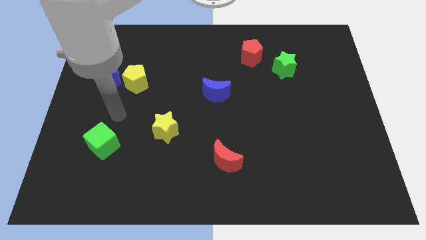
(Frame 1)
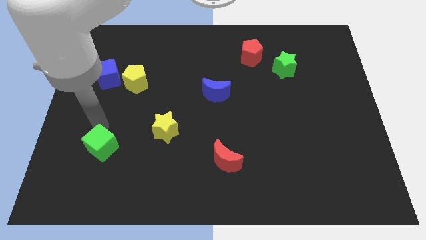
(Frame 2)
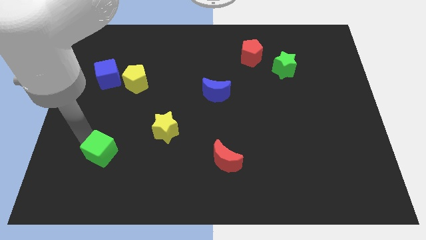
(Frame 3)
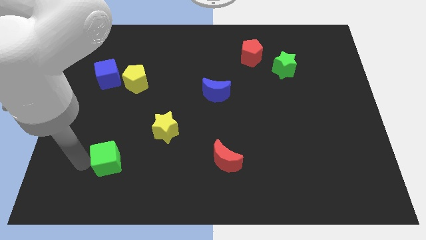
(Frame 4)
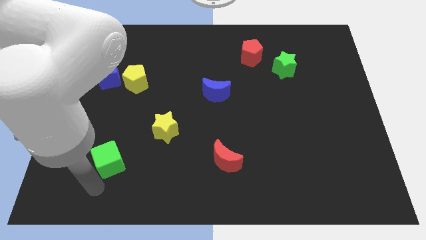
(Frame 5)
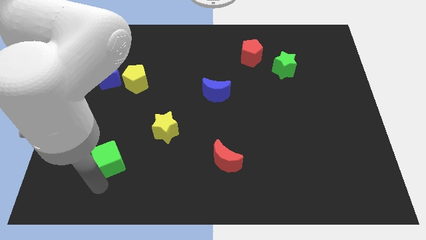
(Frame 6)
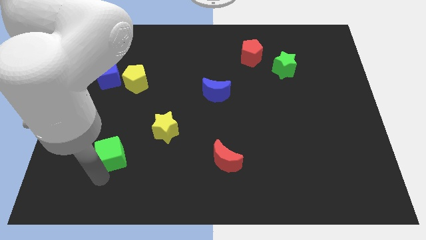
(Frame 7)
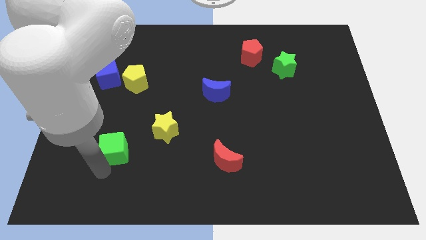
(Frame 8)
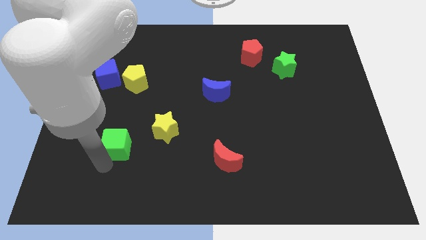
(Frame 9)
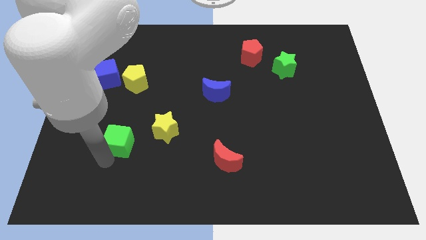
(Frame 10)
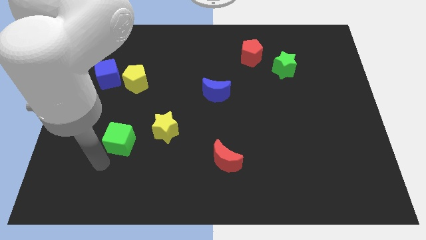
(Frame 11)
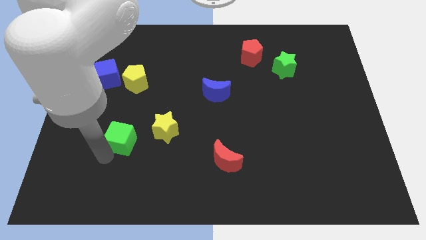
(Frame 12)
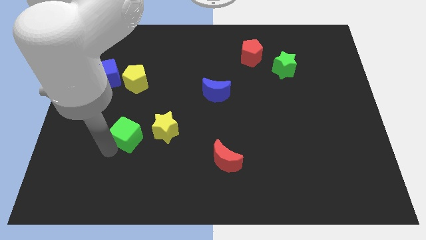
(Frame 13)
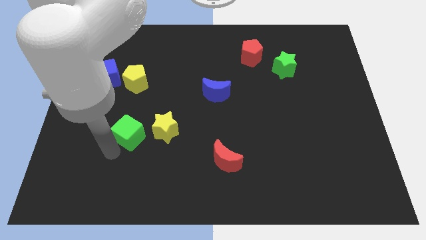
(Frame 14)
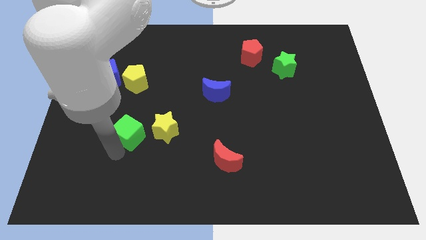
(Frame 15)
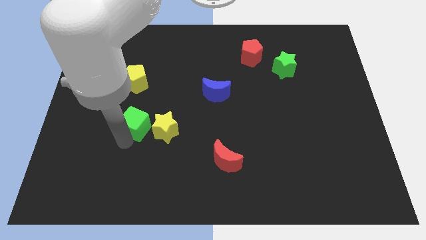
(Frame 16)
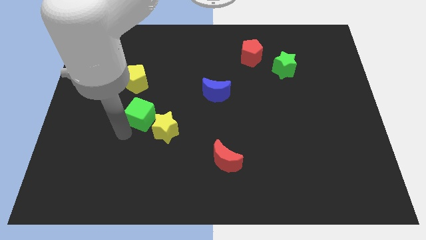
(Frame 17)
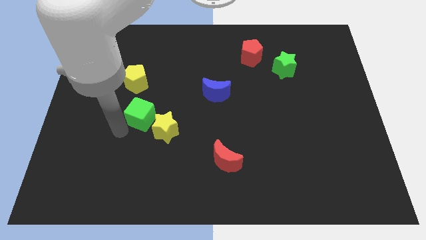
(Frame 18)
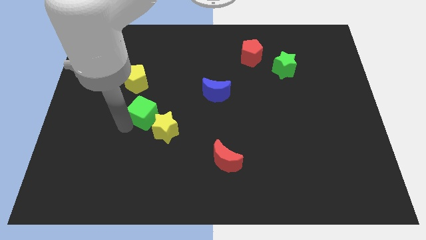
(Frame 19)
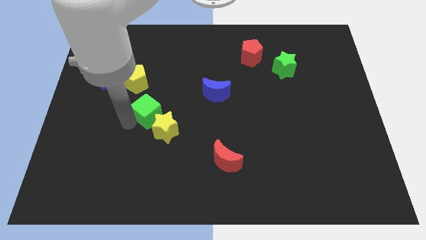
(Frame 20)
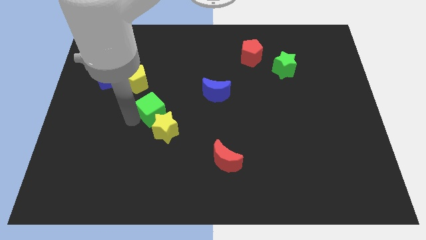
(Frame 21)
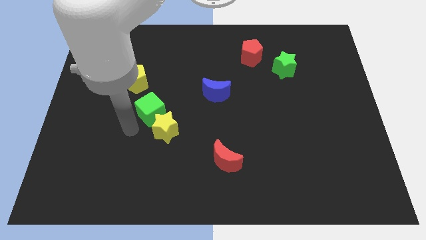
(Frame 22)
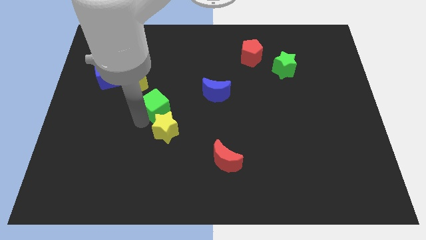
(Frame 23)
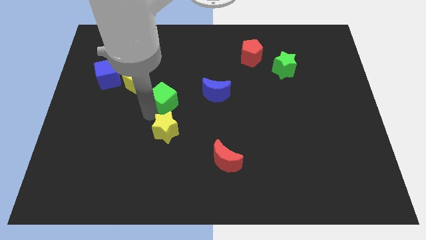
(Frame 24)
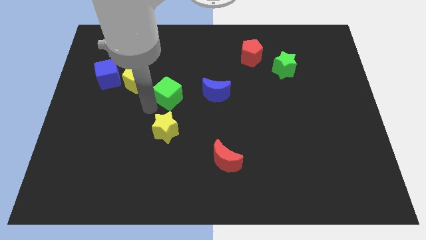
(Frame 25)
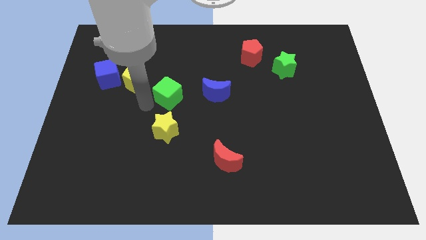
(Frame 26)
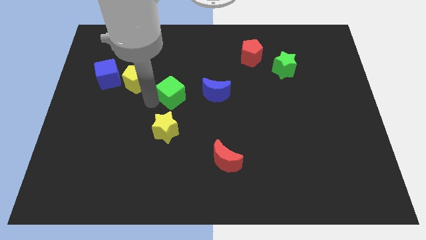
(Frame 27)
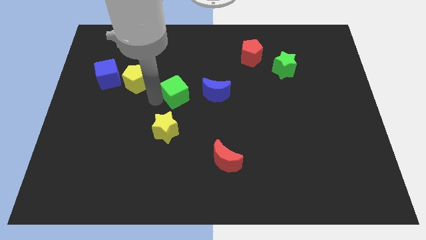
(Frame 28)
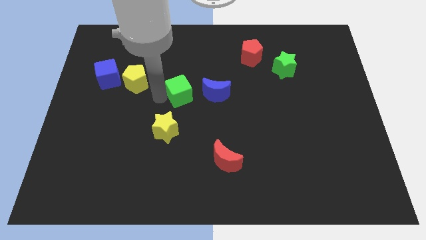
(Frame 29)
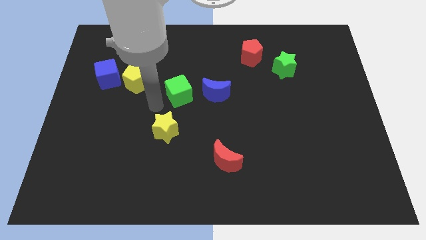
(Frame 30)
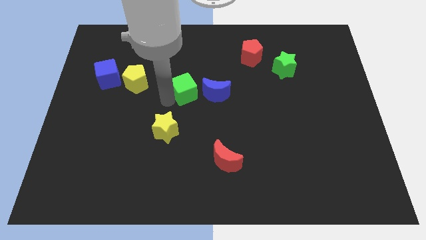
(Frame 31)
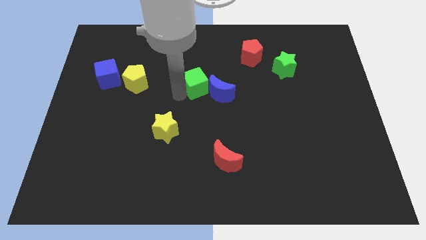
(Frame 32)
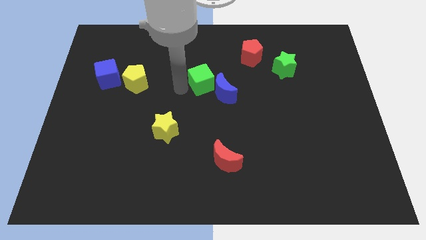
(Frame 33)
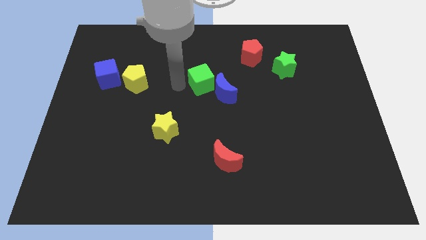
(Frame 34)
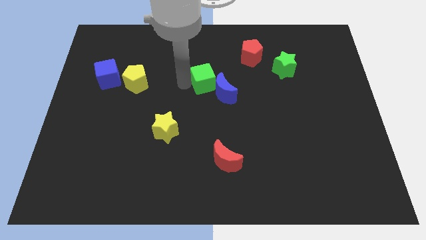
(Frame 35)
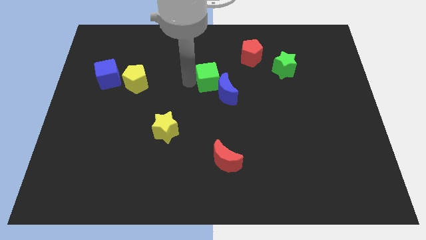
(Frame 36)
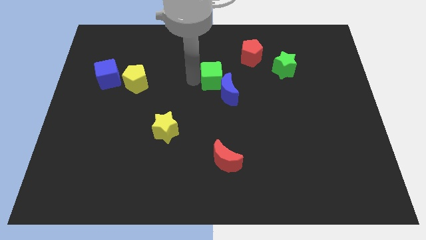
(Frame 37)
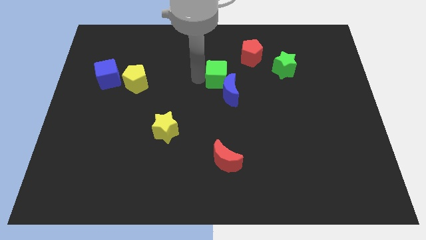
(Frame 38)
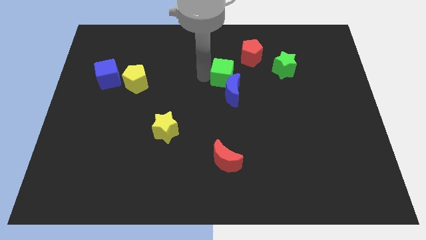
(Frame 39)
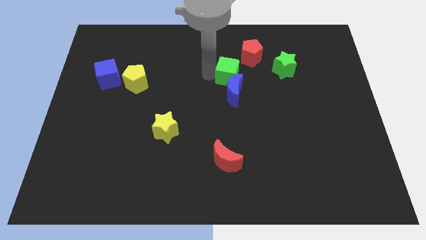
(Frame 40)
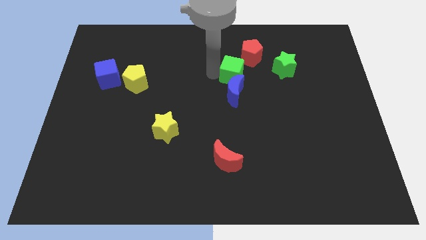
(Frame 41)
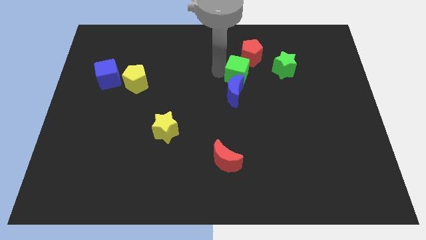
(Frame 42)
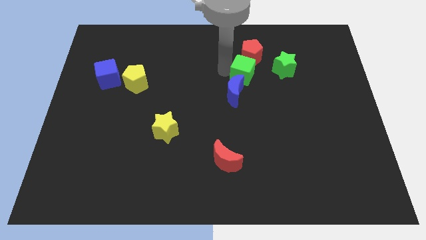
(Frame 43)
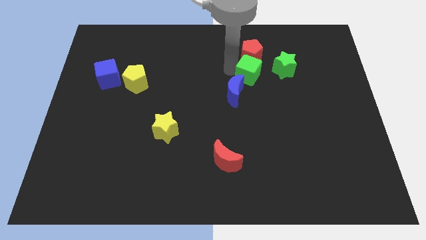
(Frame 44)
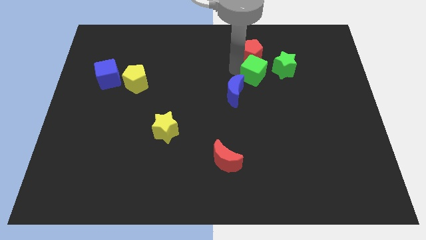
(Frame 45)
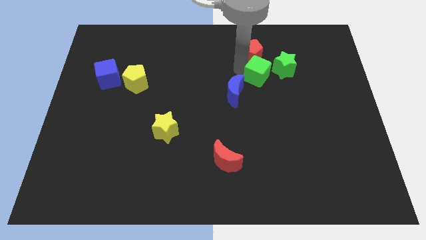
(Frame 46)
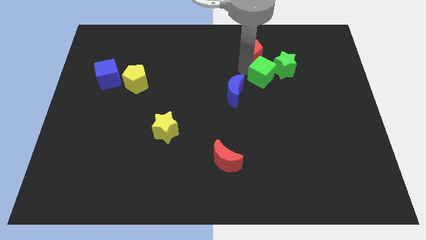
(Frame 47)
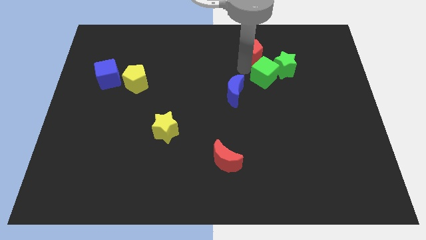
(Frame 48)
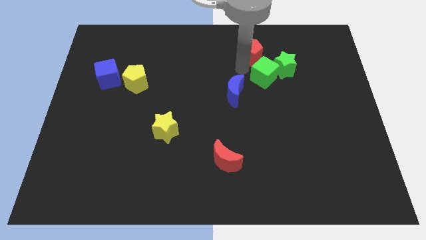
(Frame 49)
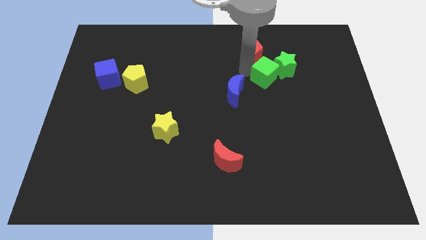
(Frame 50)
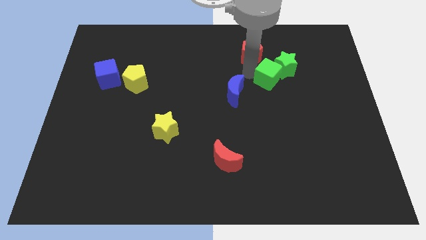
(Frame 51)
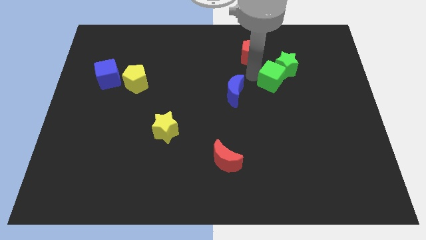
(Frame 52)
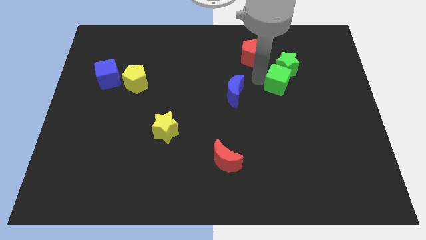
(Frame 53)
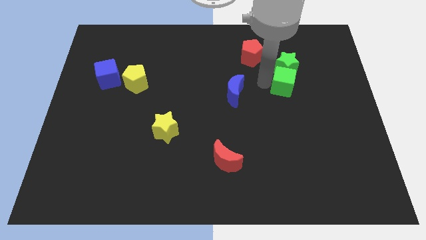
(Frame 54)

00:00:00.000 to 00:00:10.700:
slide the green cube to the bottom right side of the green star

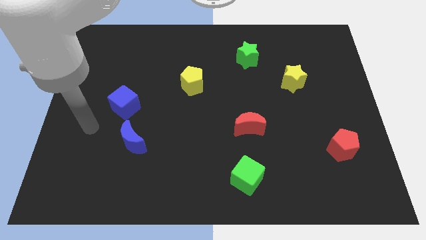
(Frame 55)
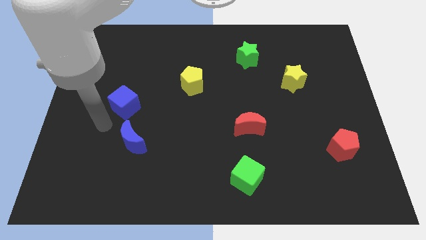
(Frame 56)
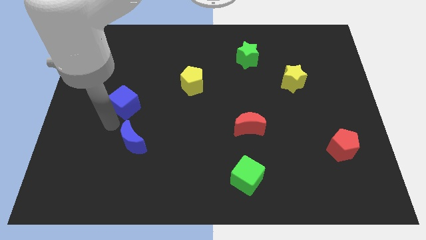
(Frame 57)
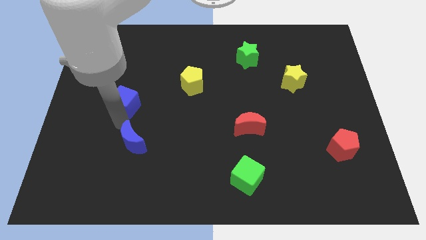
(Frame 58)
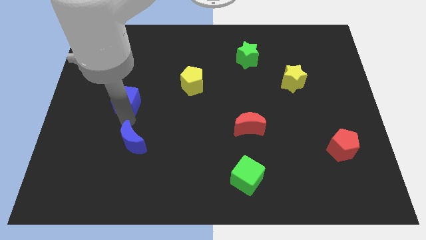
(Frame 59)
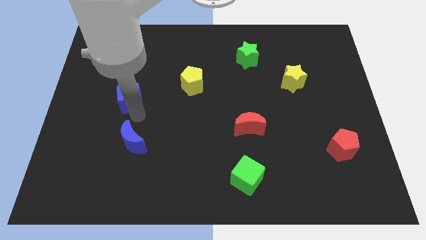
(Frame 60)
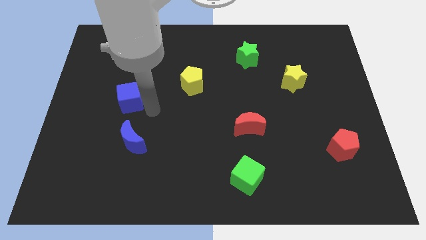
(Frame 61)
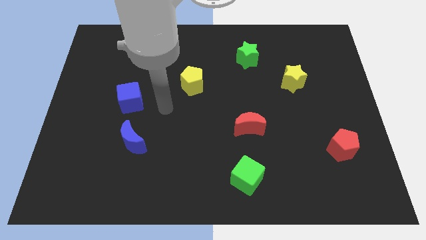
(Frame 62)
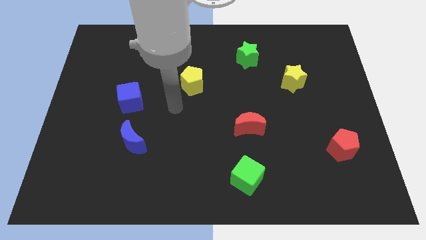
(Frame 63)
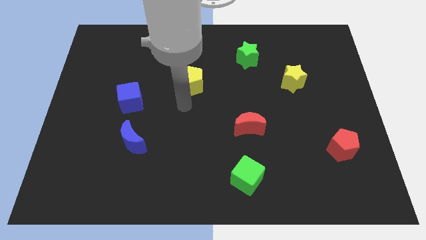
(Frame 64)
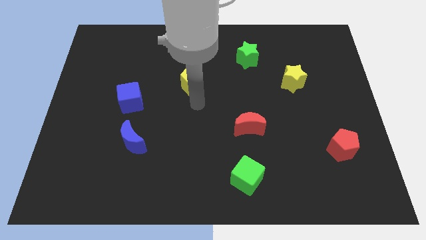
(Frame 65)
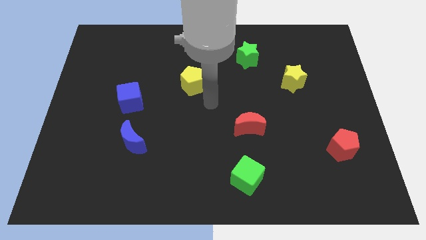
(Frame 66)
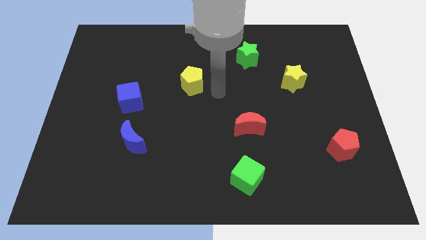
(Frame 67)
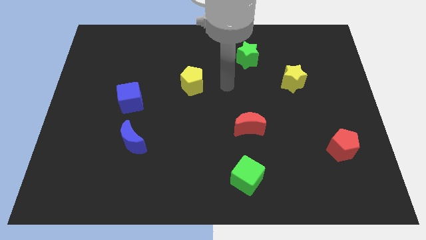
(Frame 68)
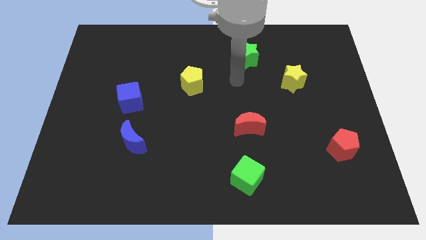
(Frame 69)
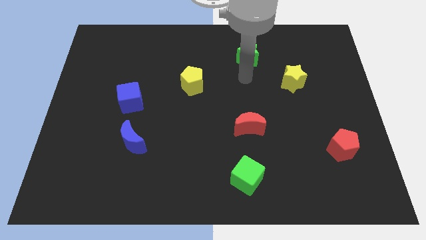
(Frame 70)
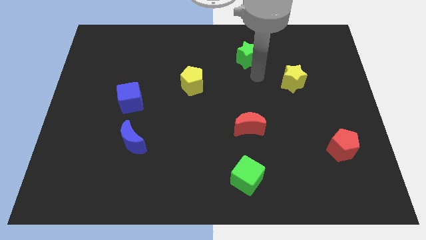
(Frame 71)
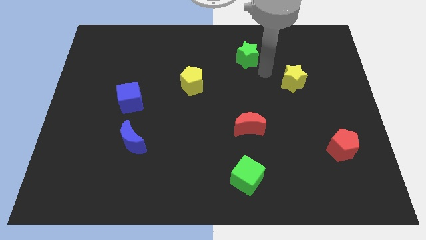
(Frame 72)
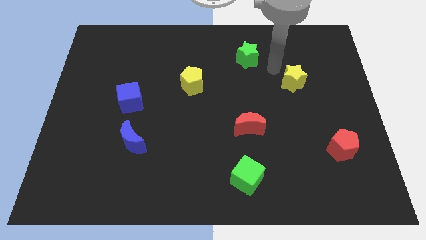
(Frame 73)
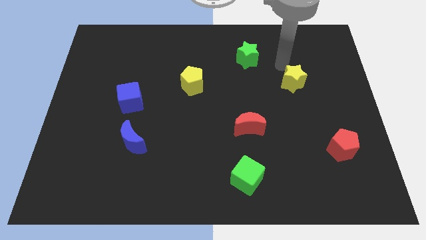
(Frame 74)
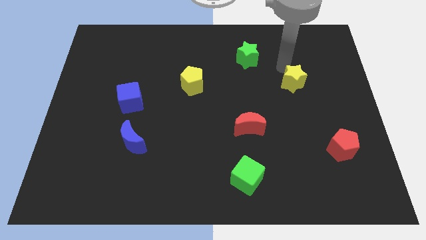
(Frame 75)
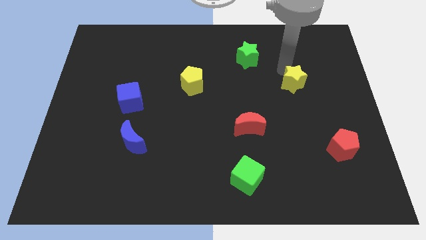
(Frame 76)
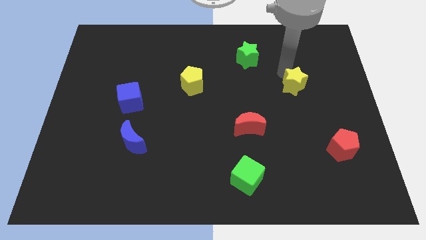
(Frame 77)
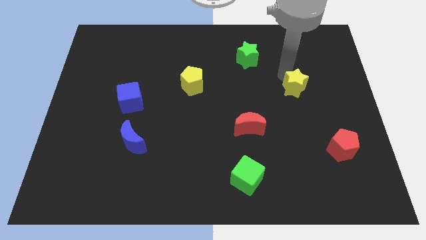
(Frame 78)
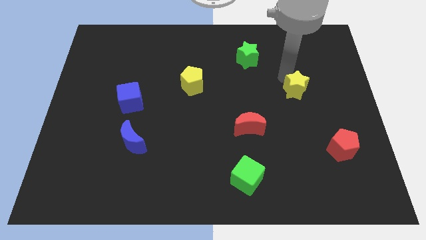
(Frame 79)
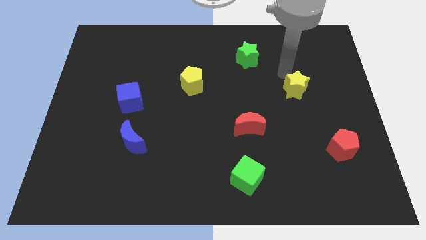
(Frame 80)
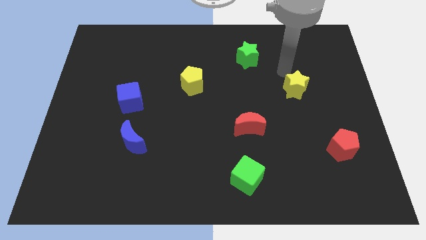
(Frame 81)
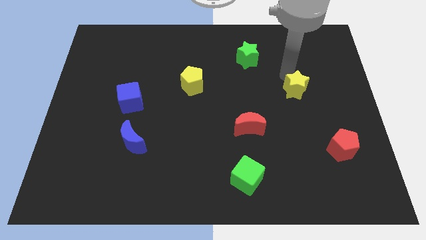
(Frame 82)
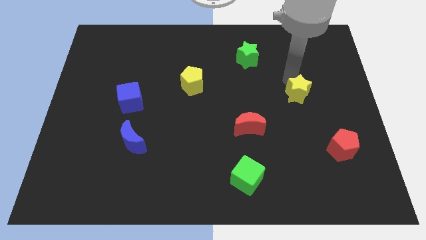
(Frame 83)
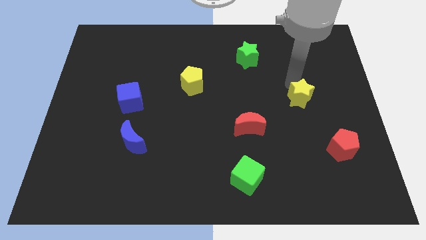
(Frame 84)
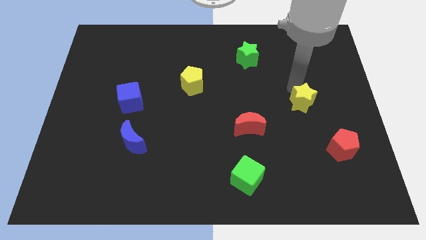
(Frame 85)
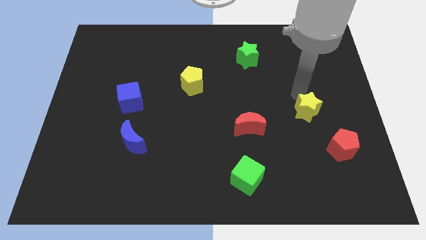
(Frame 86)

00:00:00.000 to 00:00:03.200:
move the yellow star diagonally up and to the left of the red pentagon
